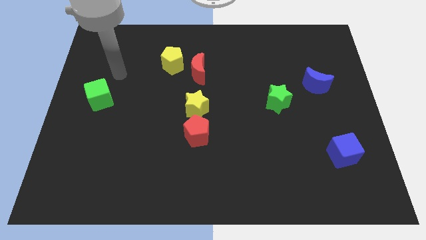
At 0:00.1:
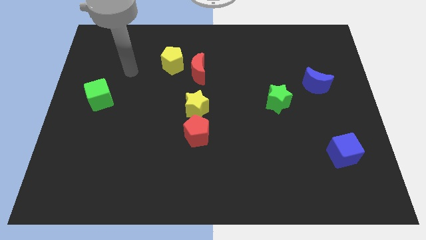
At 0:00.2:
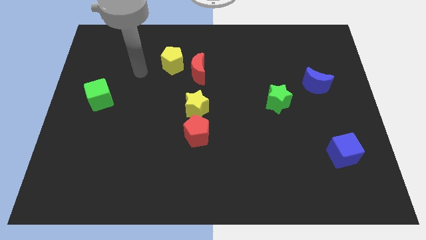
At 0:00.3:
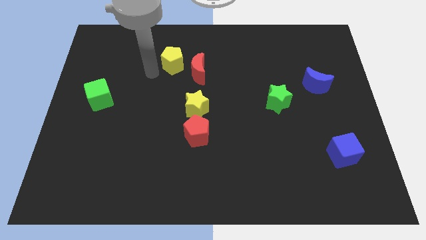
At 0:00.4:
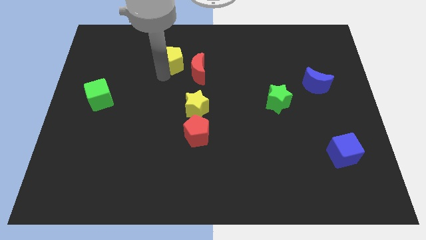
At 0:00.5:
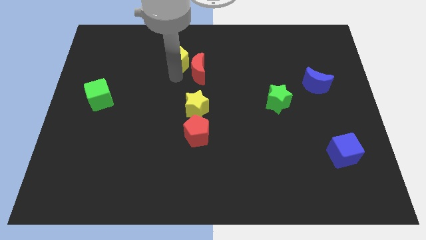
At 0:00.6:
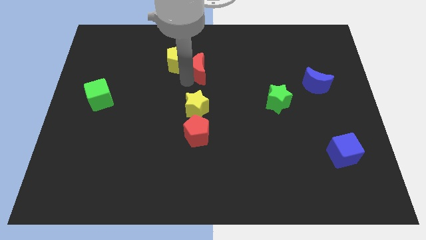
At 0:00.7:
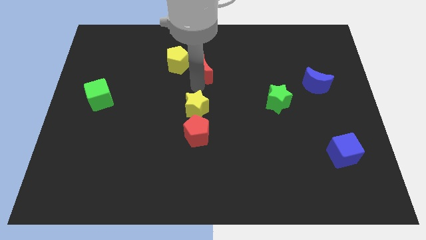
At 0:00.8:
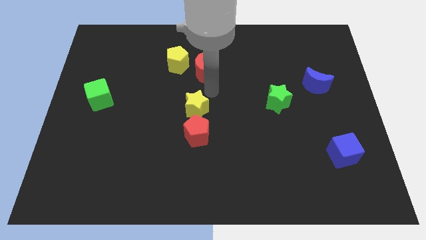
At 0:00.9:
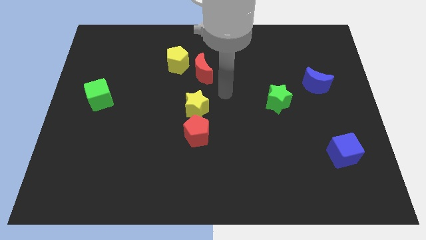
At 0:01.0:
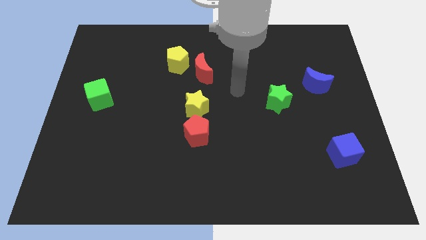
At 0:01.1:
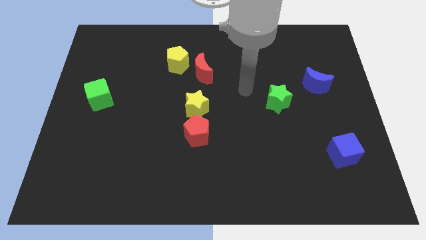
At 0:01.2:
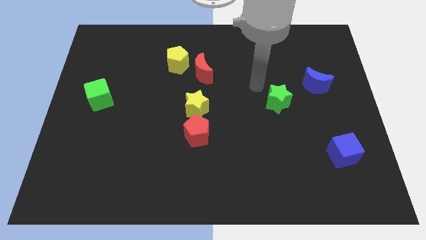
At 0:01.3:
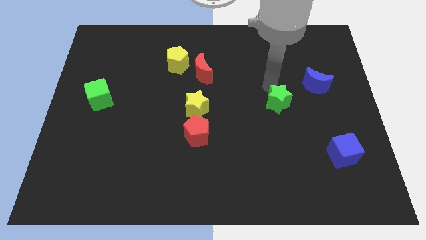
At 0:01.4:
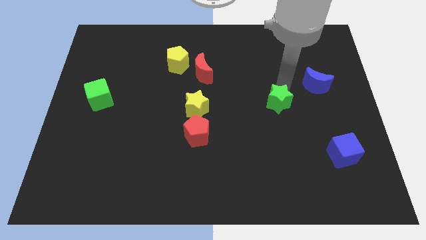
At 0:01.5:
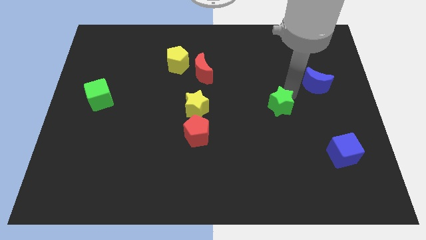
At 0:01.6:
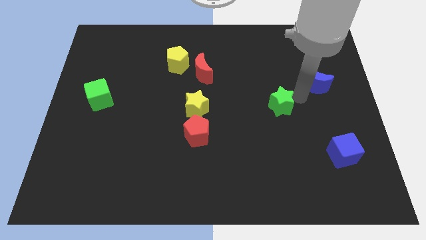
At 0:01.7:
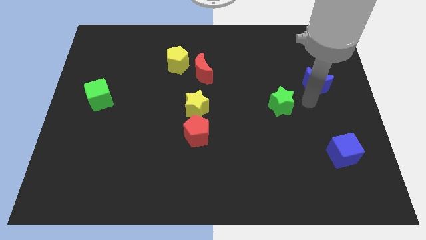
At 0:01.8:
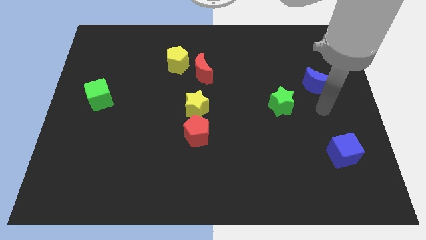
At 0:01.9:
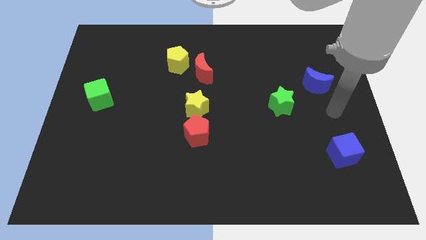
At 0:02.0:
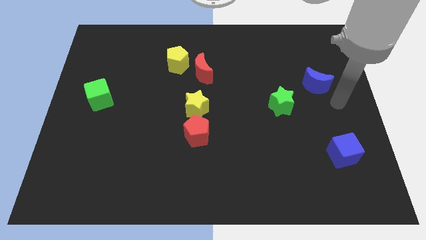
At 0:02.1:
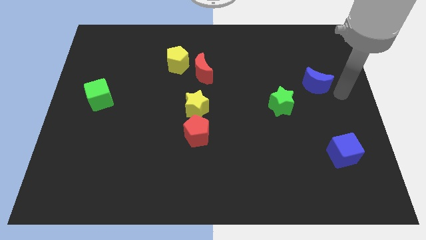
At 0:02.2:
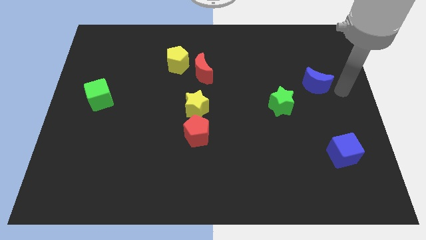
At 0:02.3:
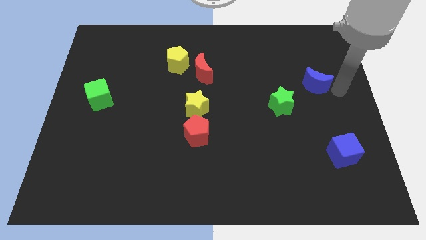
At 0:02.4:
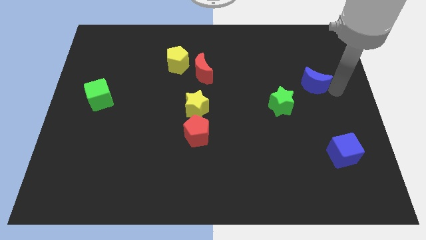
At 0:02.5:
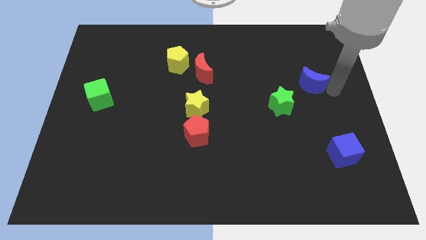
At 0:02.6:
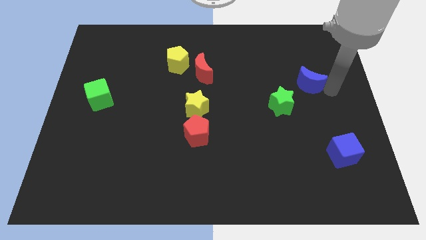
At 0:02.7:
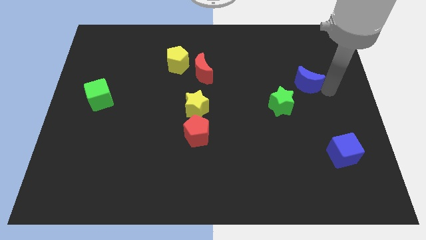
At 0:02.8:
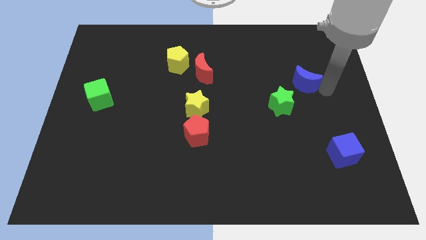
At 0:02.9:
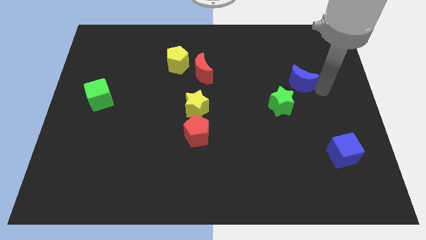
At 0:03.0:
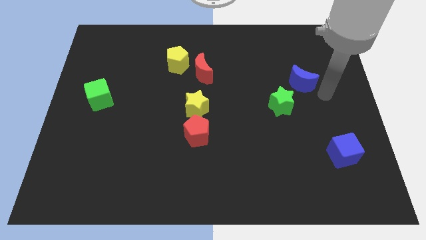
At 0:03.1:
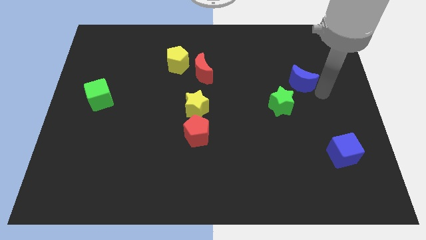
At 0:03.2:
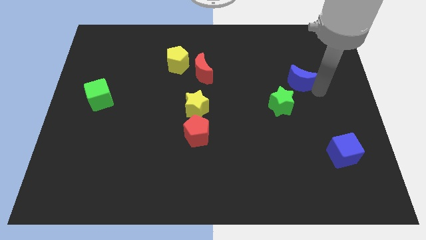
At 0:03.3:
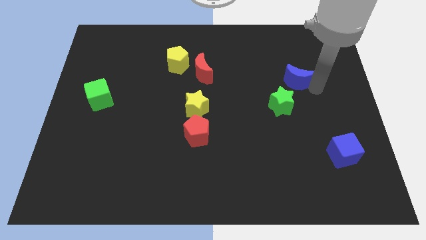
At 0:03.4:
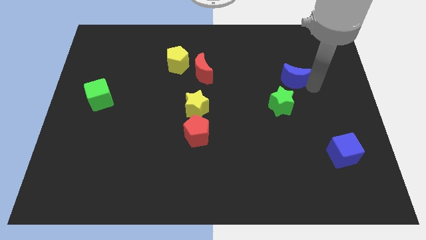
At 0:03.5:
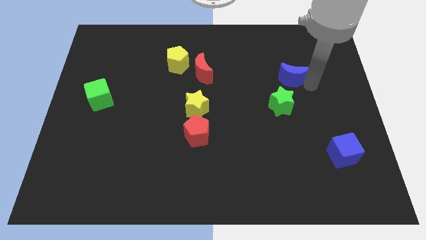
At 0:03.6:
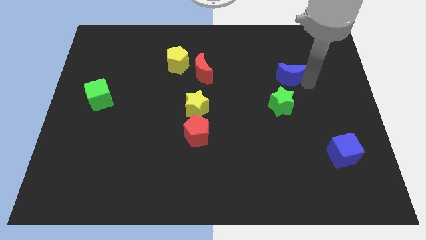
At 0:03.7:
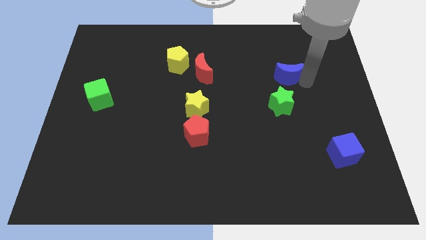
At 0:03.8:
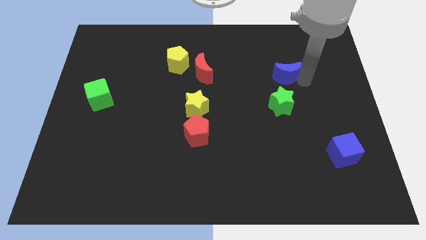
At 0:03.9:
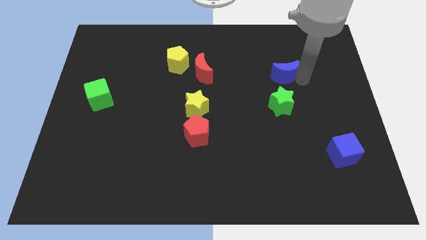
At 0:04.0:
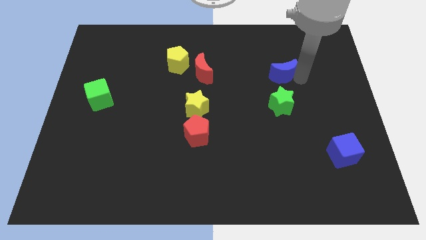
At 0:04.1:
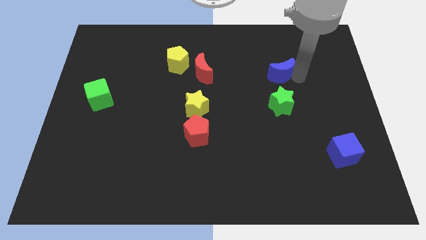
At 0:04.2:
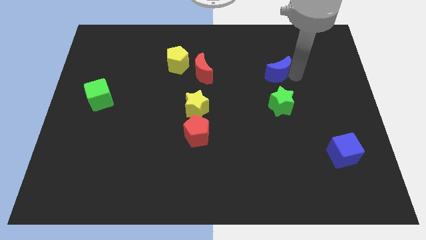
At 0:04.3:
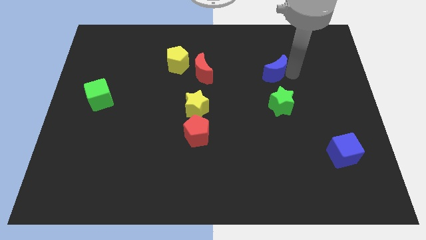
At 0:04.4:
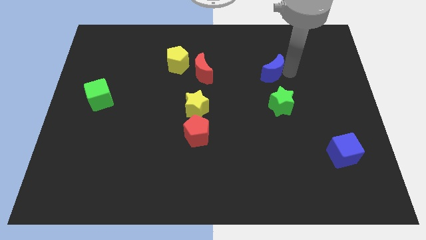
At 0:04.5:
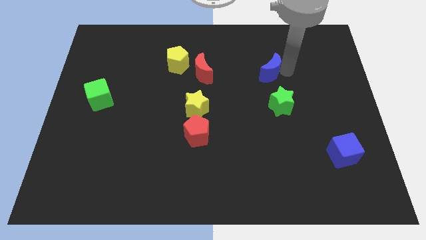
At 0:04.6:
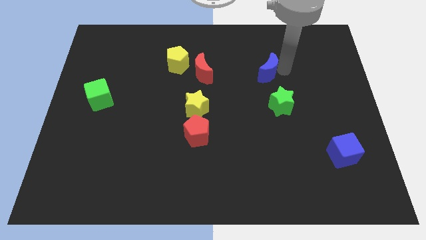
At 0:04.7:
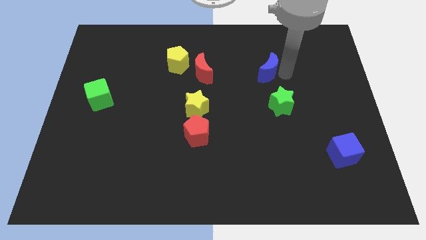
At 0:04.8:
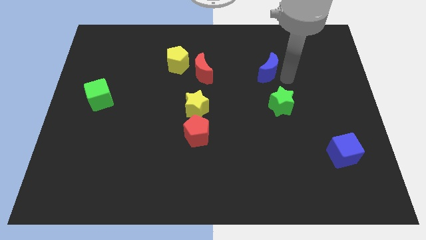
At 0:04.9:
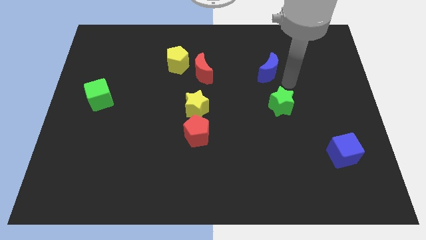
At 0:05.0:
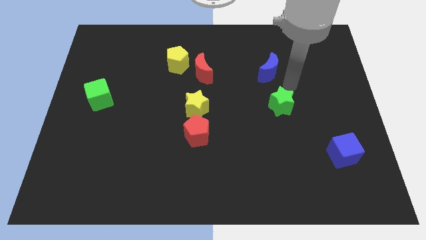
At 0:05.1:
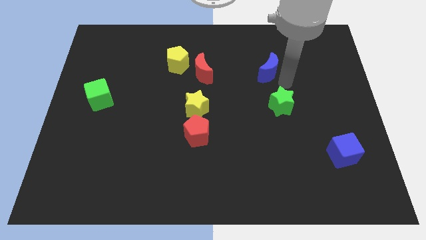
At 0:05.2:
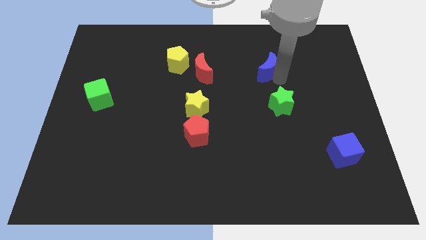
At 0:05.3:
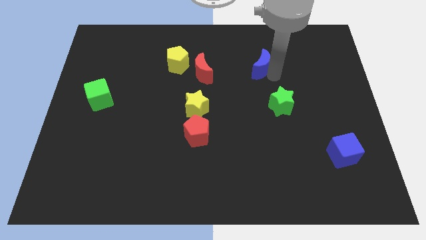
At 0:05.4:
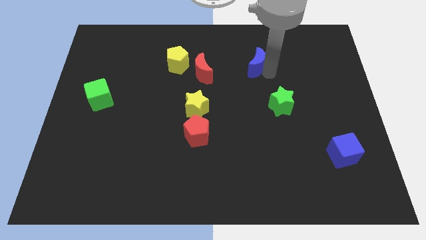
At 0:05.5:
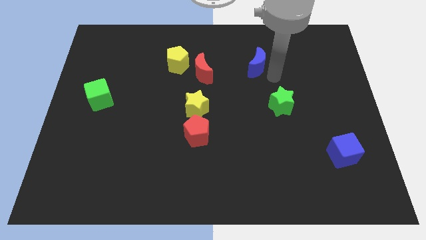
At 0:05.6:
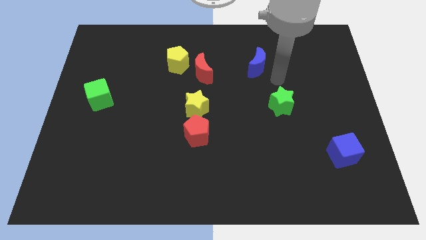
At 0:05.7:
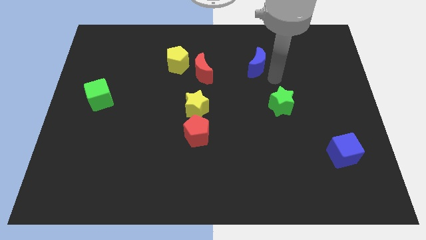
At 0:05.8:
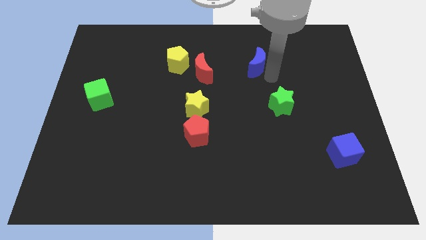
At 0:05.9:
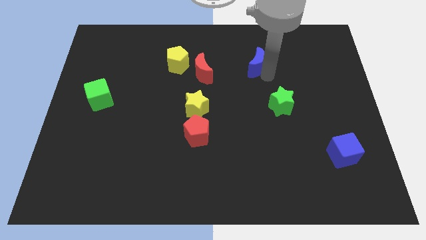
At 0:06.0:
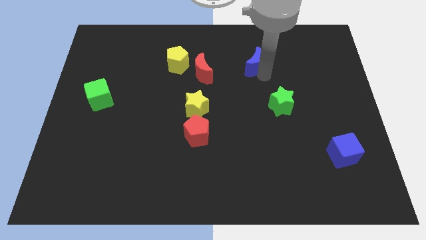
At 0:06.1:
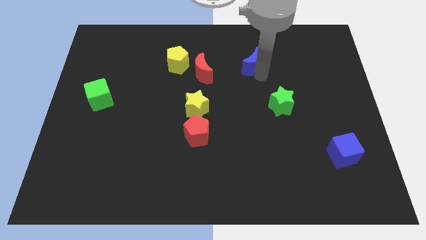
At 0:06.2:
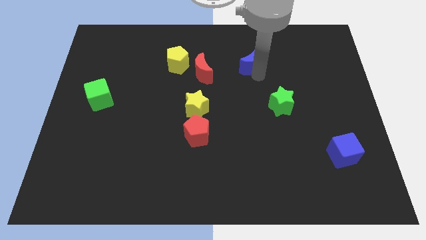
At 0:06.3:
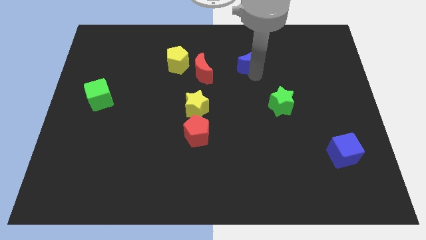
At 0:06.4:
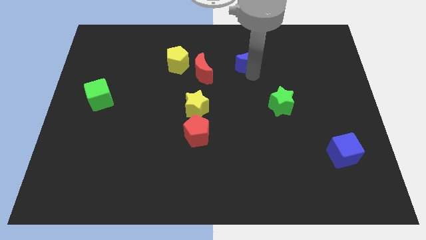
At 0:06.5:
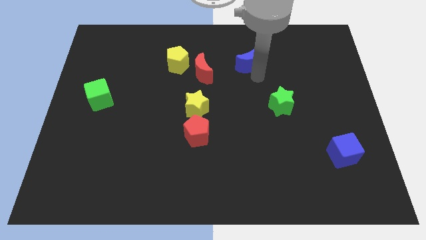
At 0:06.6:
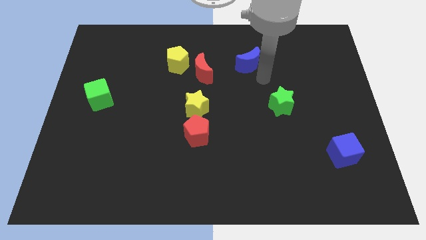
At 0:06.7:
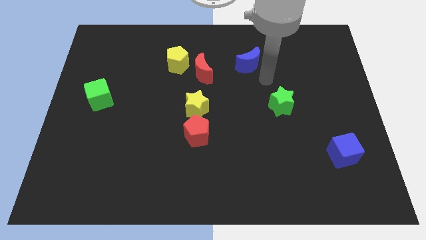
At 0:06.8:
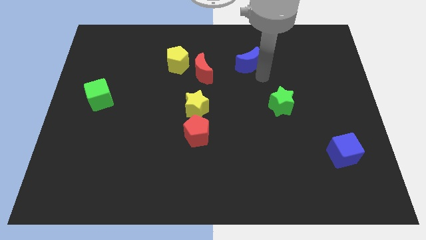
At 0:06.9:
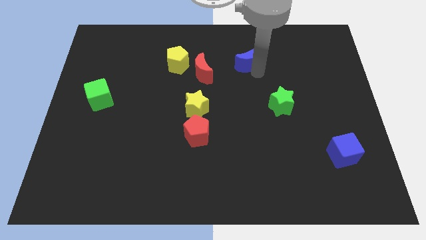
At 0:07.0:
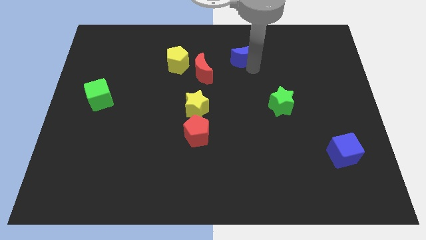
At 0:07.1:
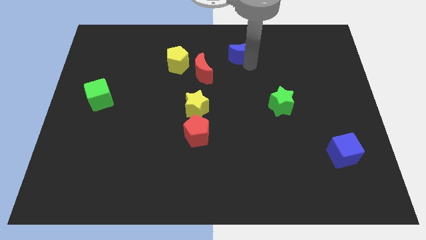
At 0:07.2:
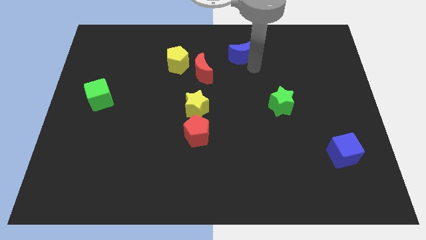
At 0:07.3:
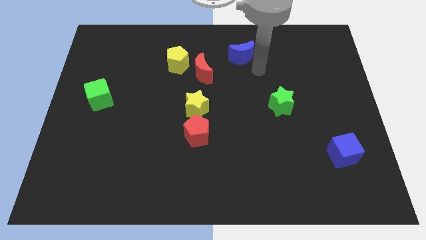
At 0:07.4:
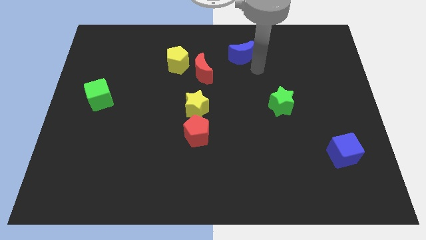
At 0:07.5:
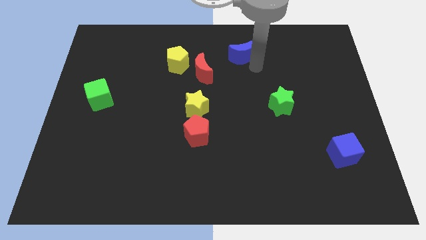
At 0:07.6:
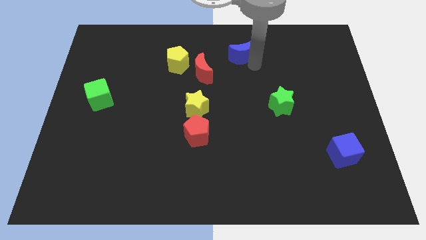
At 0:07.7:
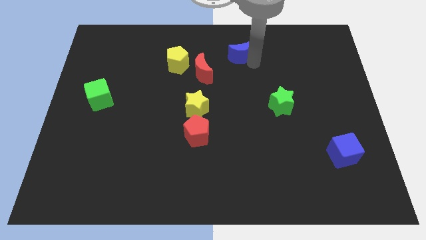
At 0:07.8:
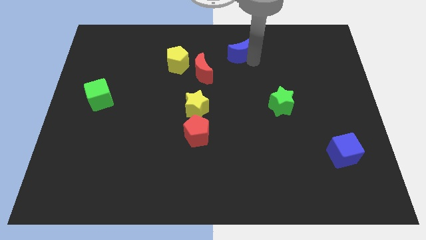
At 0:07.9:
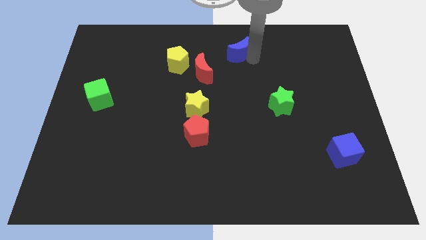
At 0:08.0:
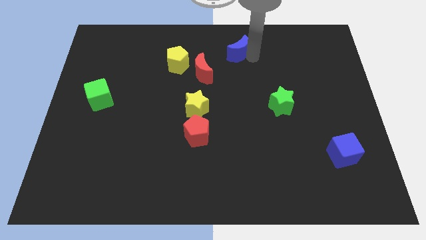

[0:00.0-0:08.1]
move the blue moon to the top side
